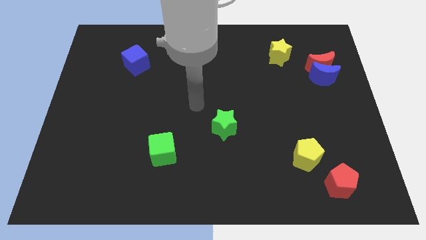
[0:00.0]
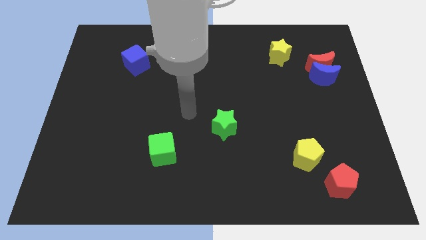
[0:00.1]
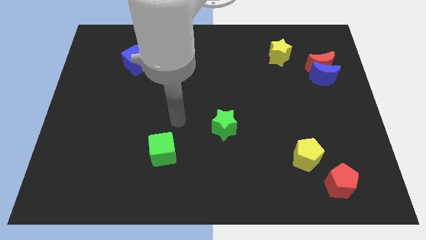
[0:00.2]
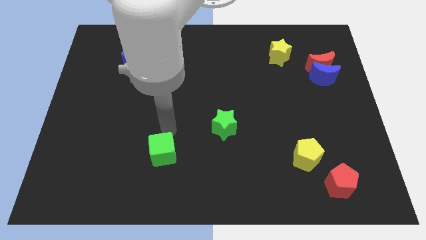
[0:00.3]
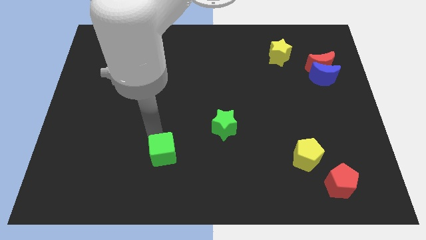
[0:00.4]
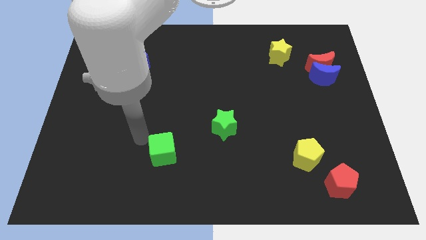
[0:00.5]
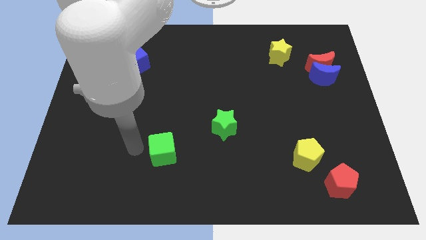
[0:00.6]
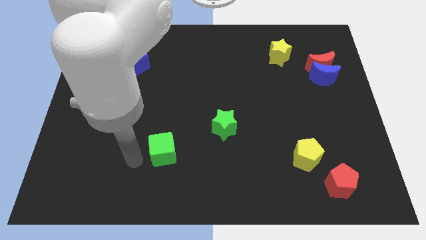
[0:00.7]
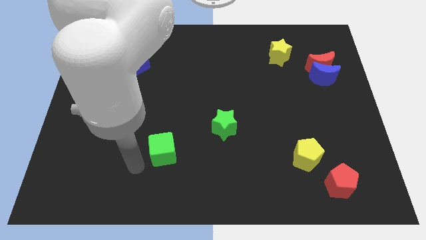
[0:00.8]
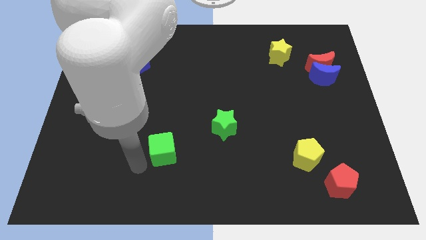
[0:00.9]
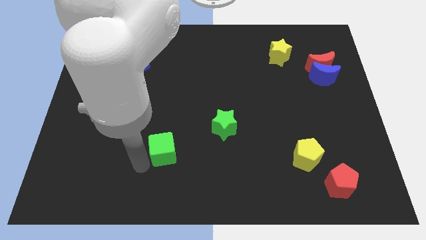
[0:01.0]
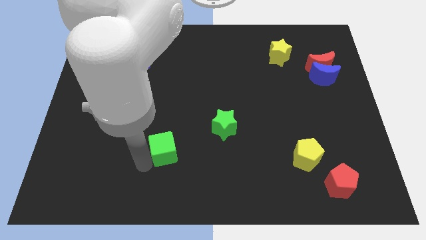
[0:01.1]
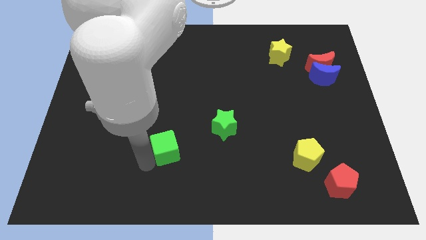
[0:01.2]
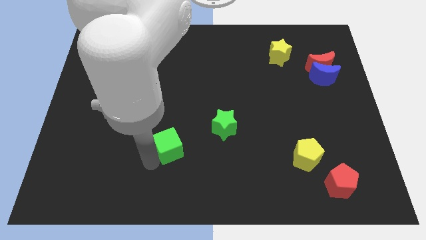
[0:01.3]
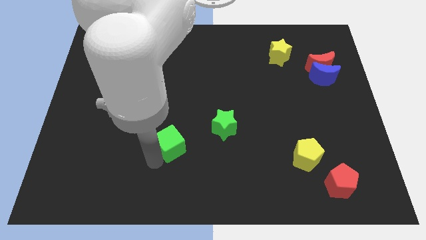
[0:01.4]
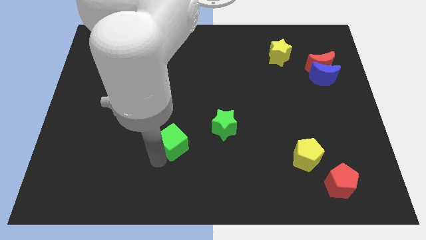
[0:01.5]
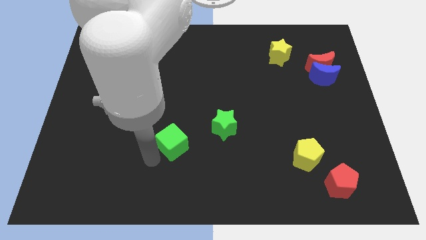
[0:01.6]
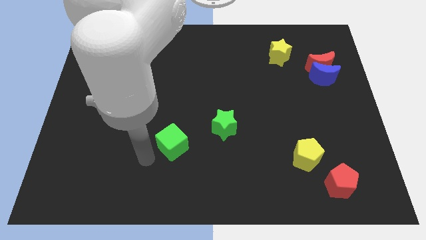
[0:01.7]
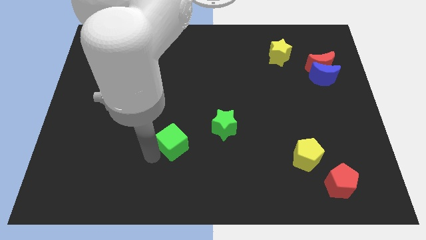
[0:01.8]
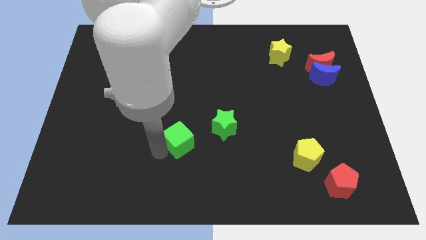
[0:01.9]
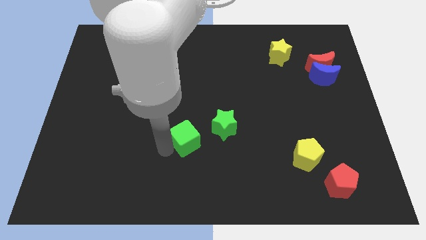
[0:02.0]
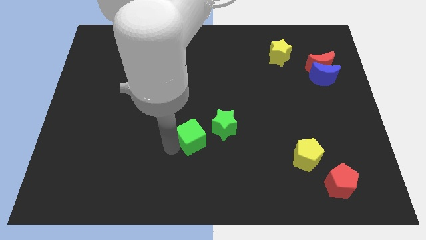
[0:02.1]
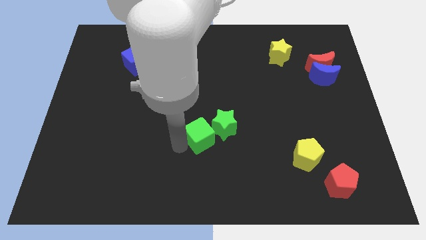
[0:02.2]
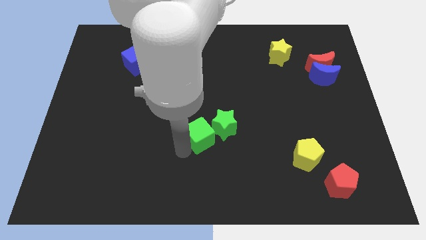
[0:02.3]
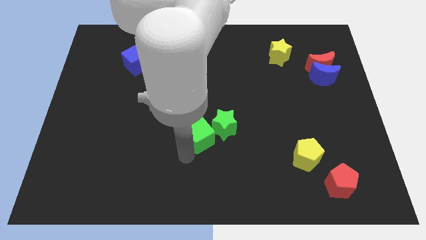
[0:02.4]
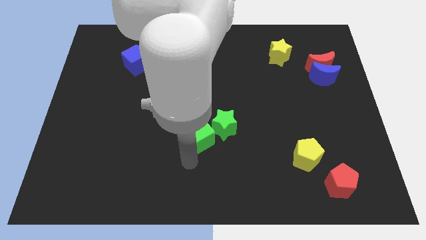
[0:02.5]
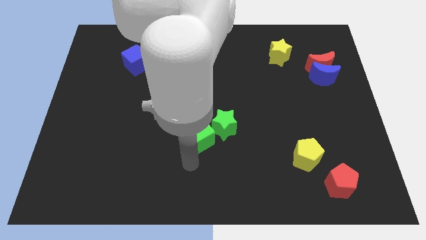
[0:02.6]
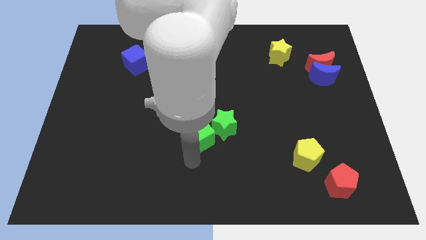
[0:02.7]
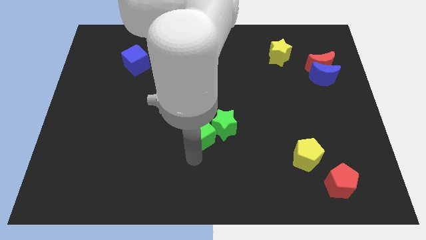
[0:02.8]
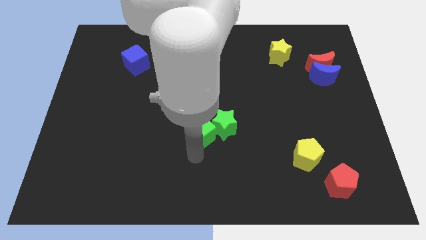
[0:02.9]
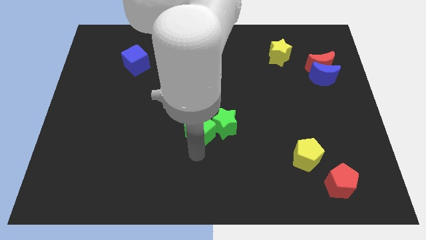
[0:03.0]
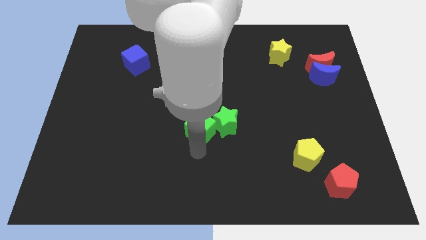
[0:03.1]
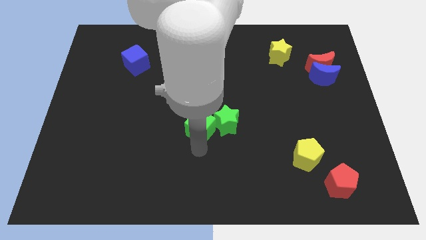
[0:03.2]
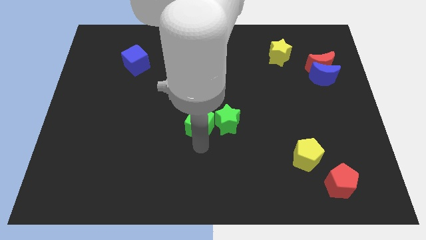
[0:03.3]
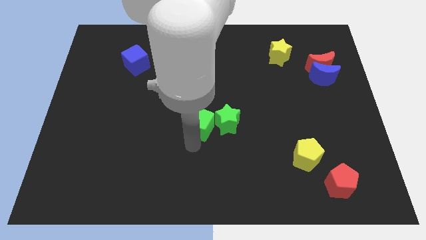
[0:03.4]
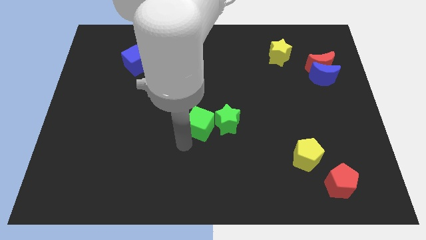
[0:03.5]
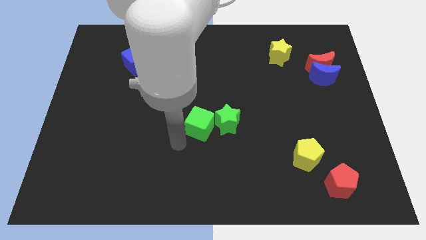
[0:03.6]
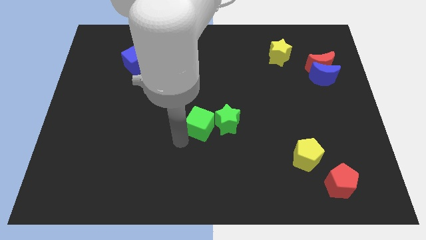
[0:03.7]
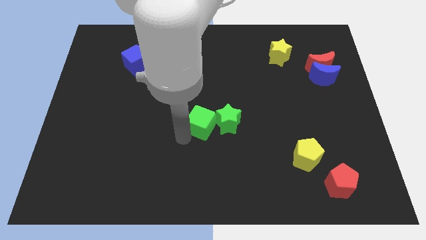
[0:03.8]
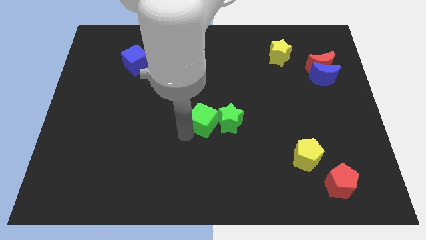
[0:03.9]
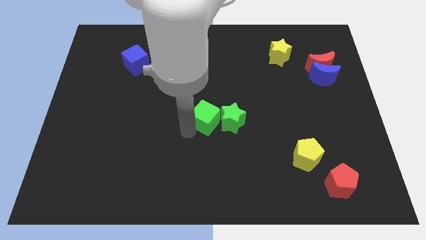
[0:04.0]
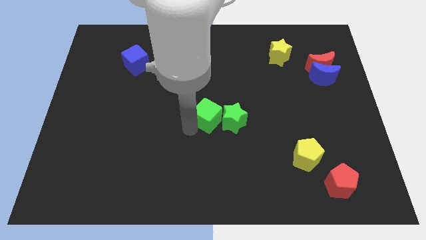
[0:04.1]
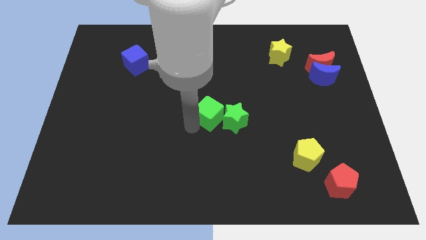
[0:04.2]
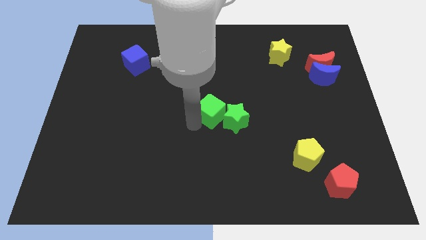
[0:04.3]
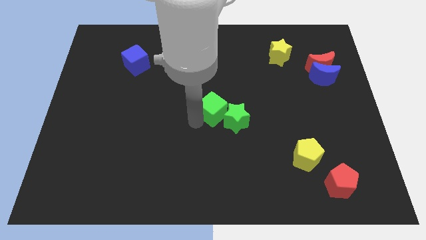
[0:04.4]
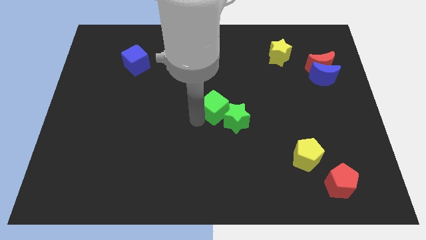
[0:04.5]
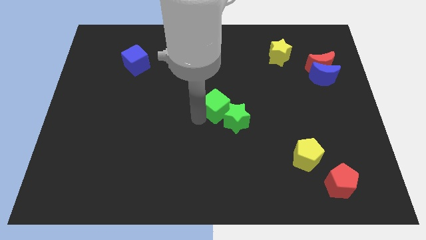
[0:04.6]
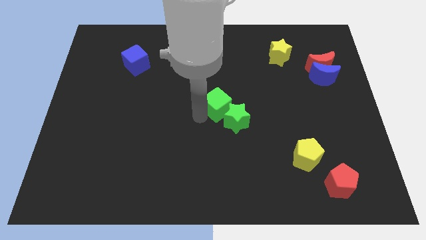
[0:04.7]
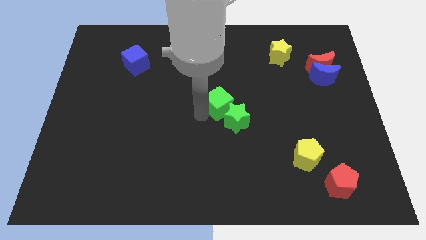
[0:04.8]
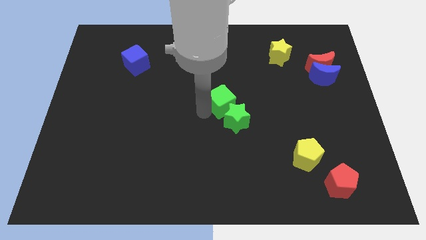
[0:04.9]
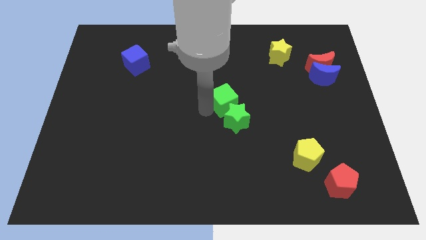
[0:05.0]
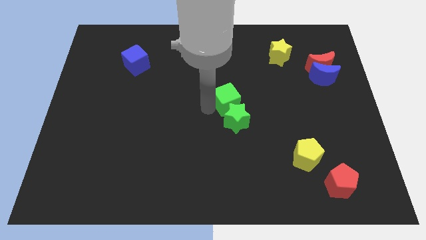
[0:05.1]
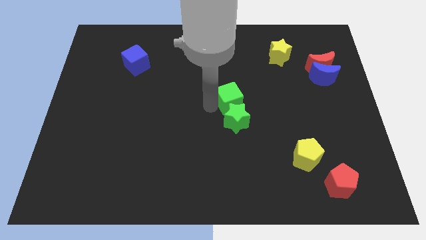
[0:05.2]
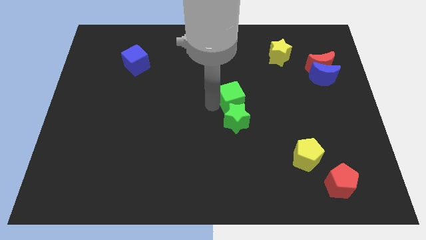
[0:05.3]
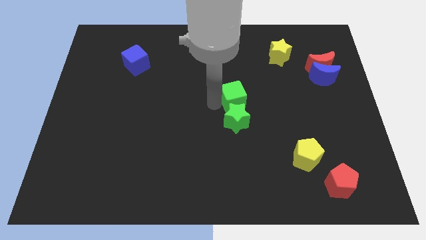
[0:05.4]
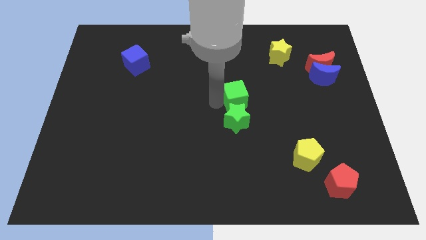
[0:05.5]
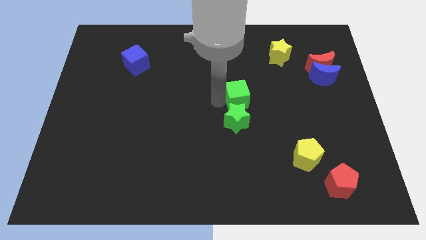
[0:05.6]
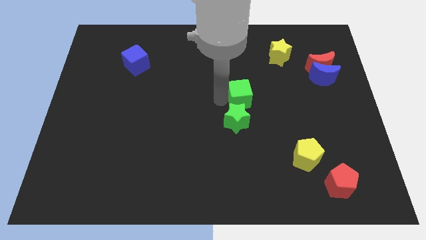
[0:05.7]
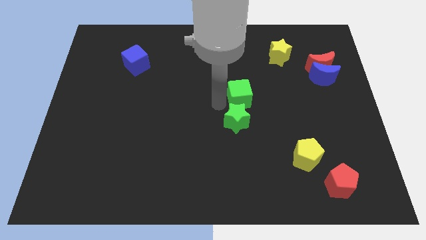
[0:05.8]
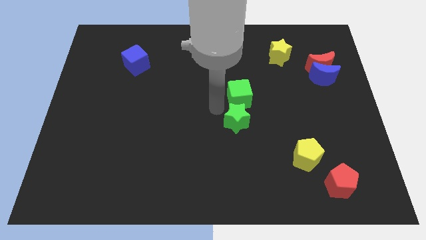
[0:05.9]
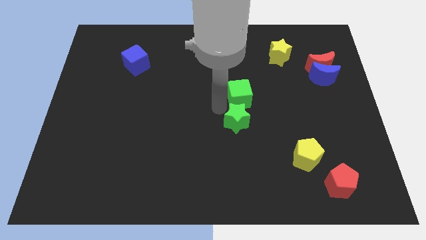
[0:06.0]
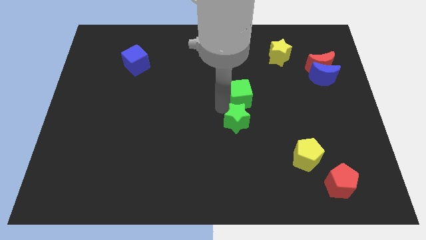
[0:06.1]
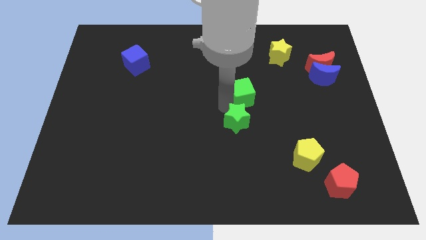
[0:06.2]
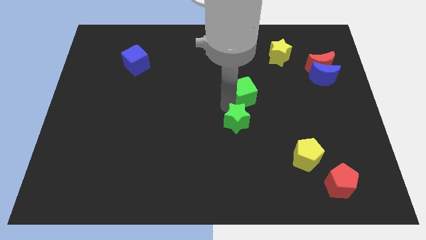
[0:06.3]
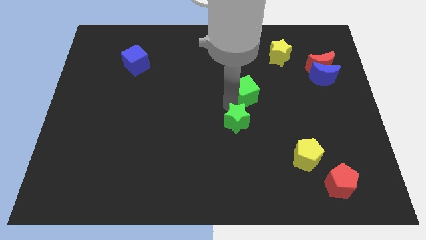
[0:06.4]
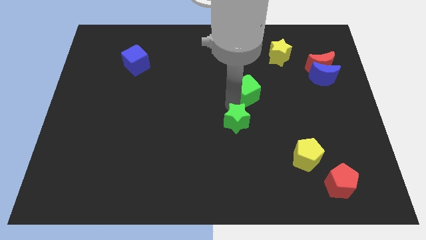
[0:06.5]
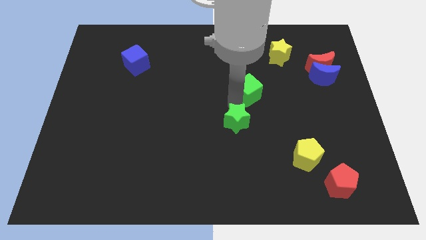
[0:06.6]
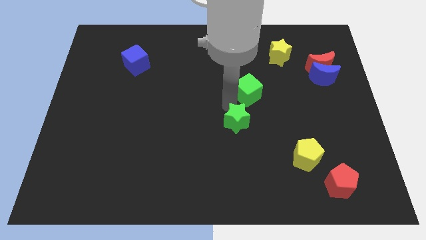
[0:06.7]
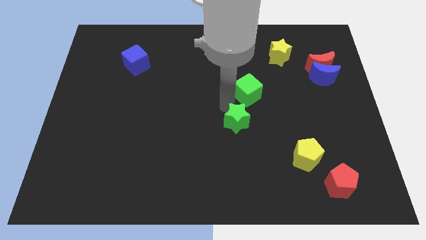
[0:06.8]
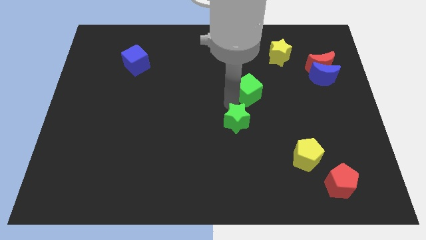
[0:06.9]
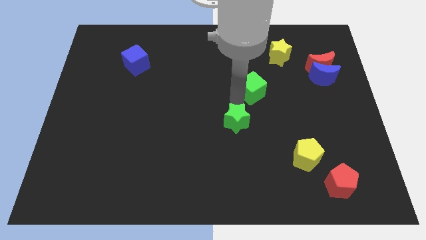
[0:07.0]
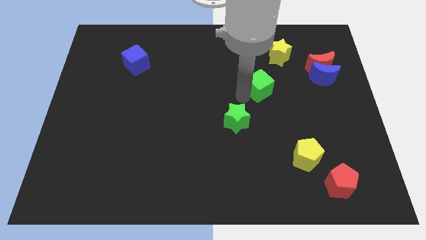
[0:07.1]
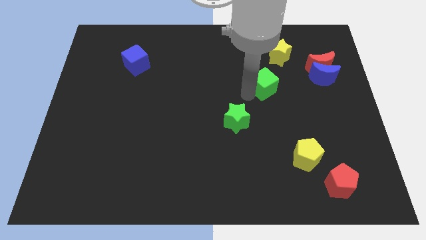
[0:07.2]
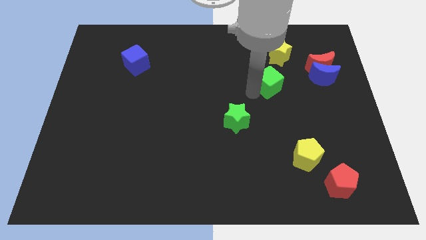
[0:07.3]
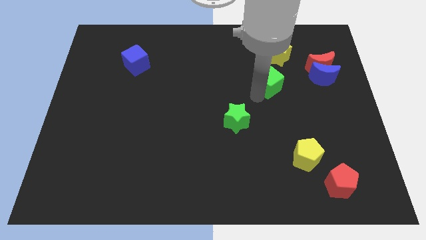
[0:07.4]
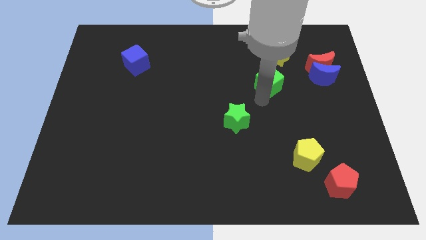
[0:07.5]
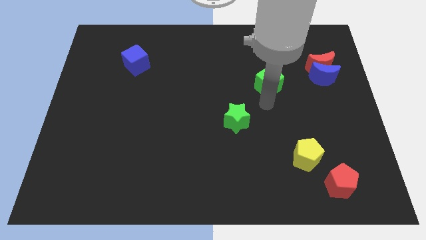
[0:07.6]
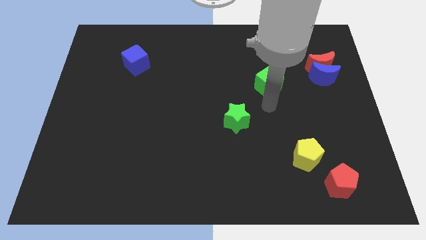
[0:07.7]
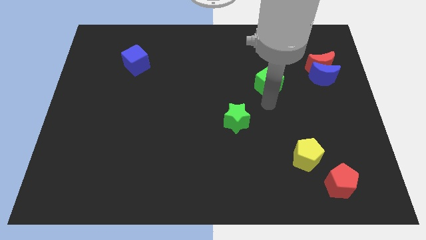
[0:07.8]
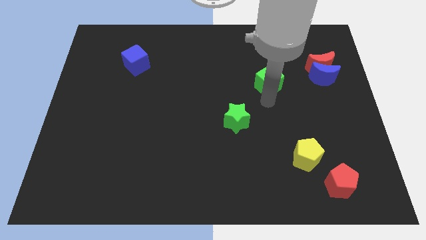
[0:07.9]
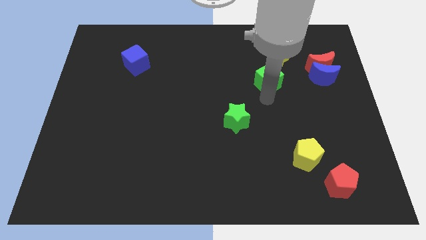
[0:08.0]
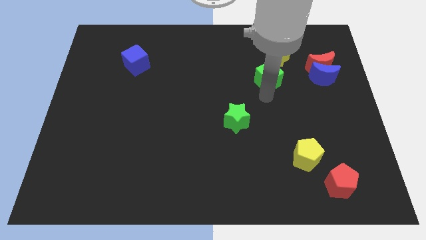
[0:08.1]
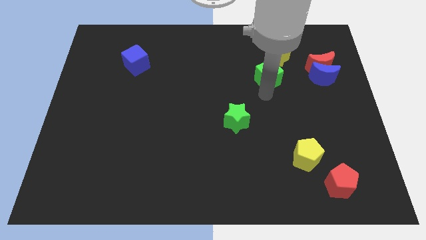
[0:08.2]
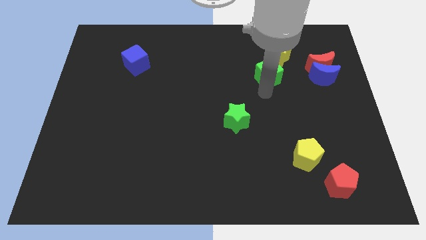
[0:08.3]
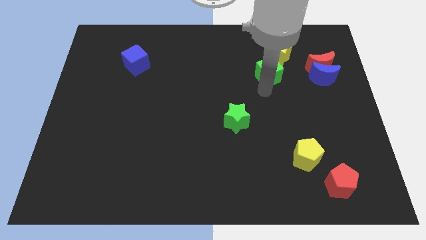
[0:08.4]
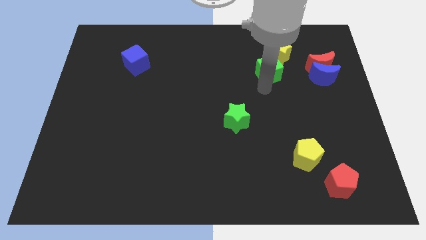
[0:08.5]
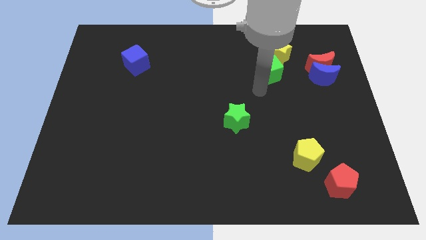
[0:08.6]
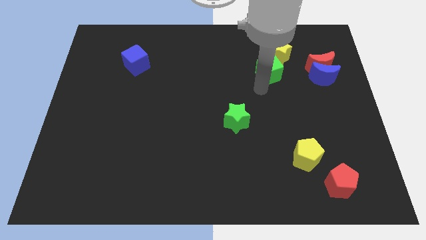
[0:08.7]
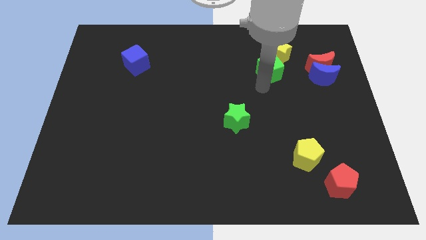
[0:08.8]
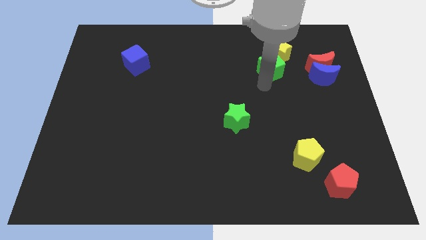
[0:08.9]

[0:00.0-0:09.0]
move the green cube towards the yellow star
